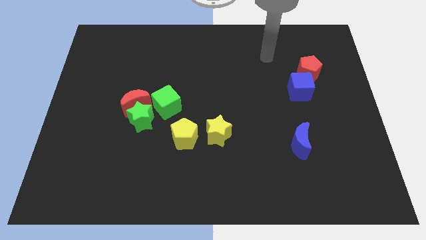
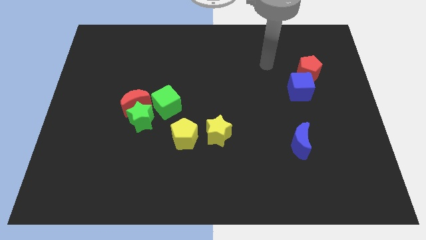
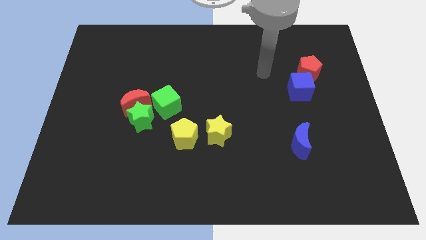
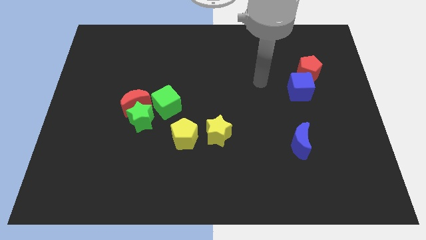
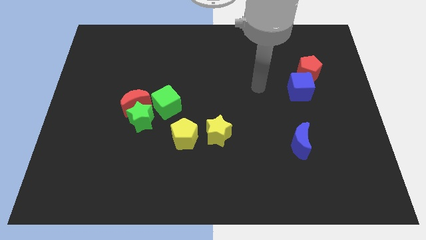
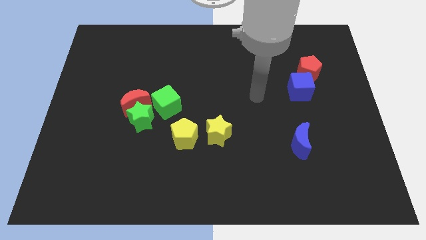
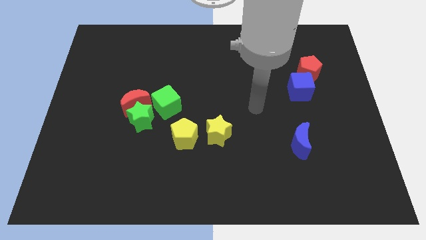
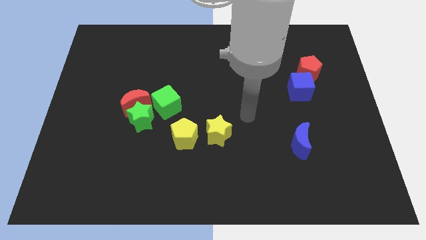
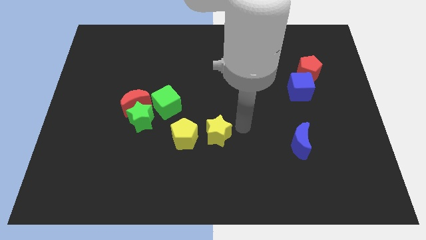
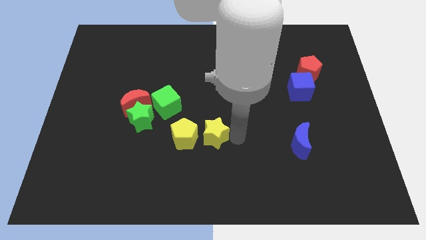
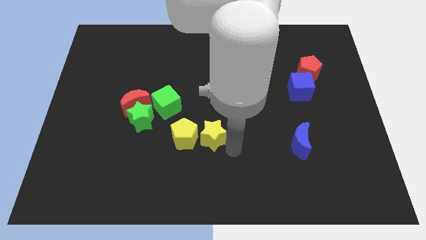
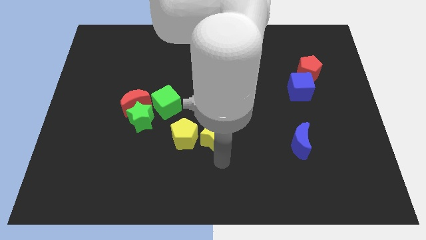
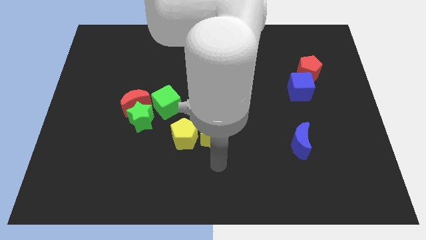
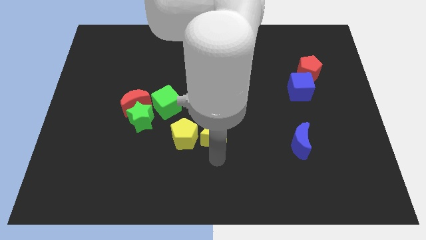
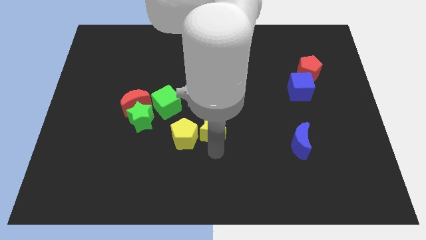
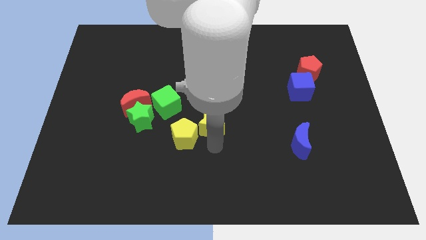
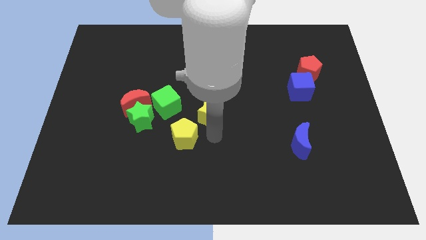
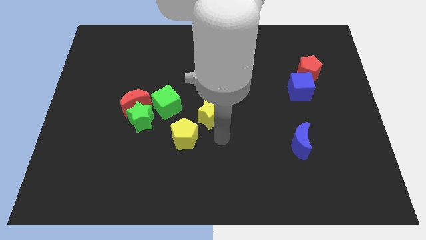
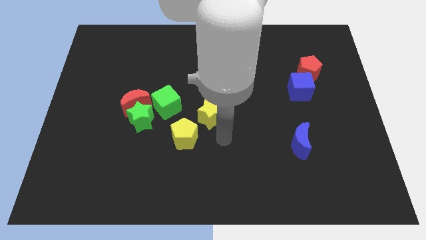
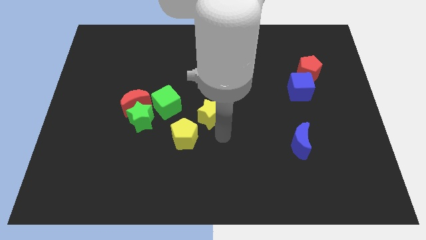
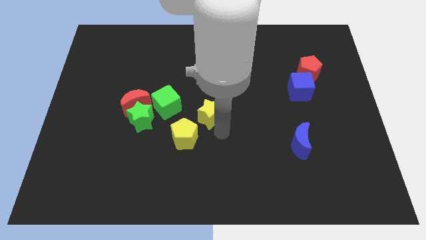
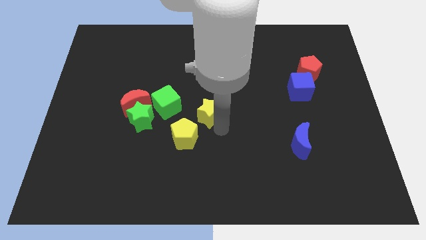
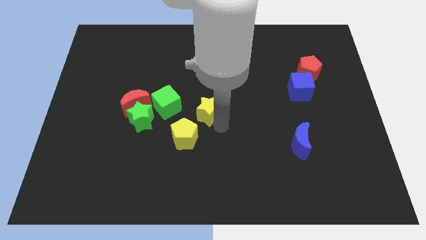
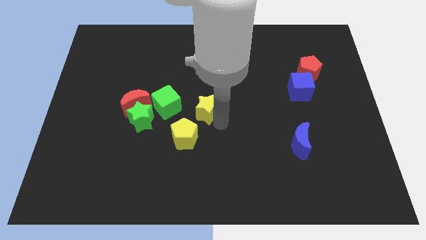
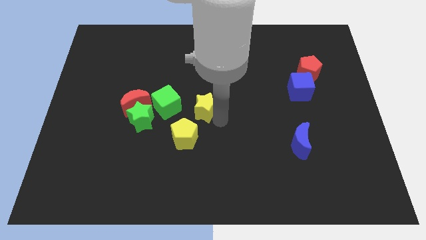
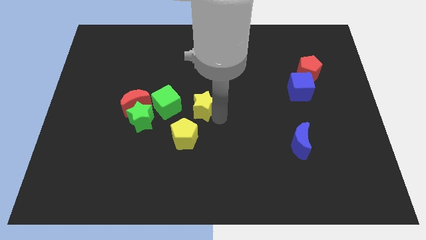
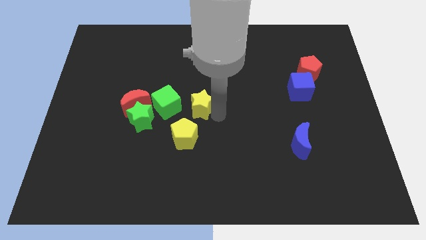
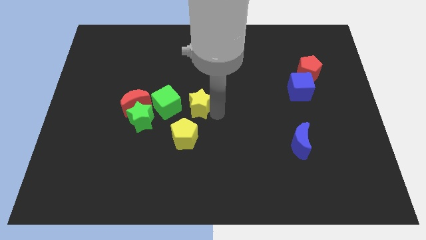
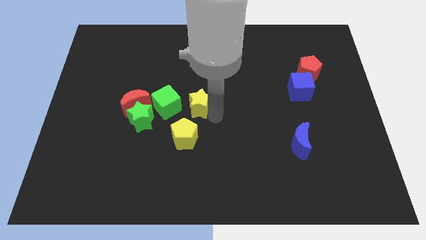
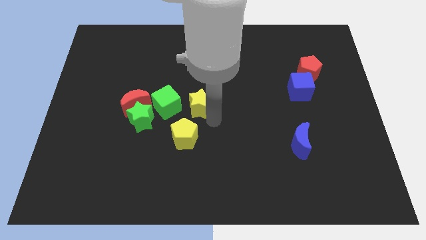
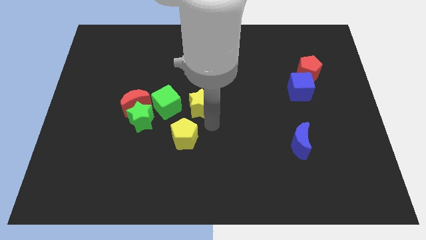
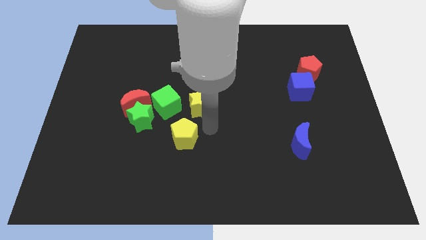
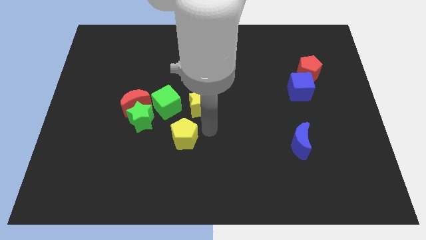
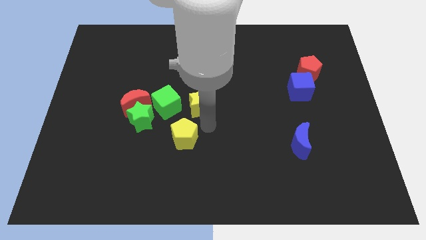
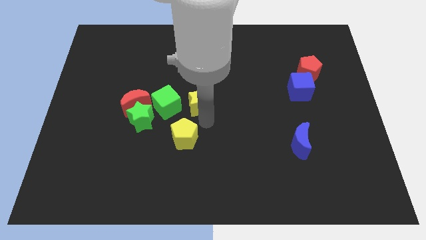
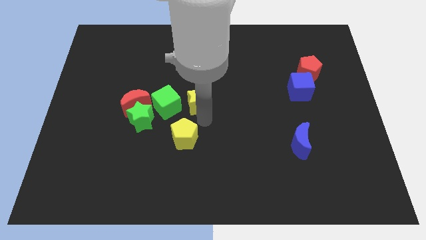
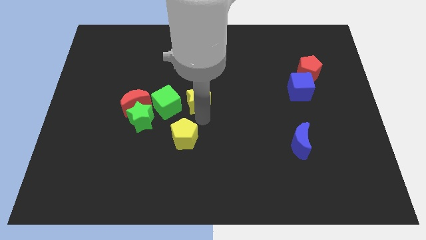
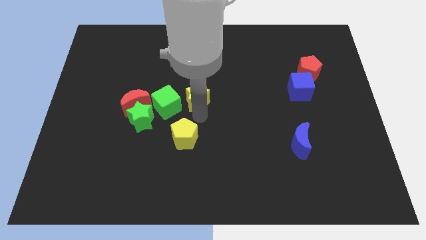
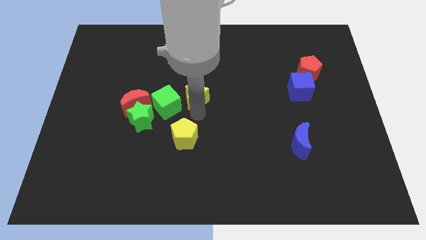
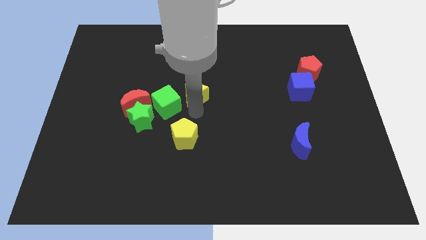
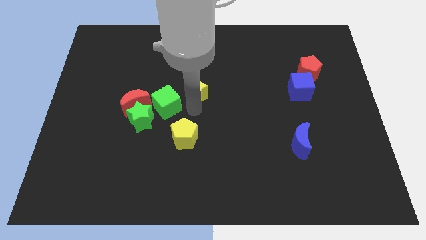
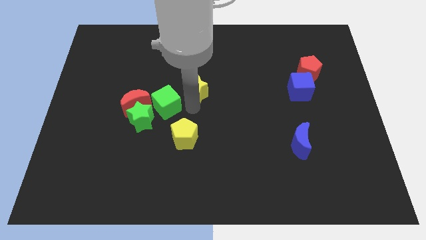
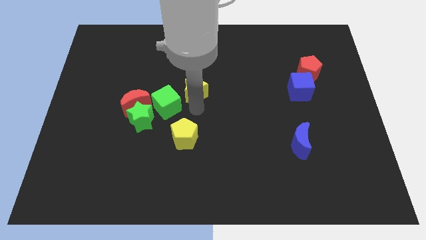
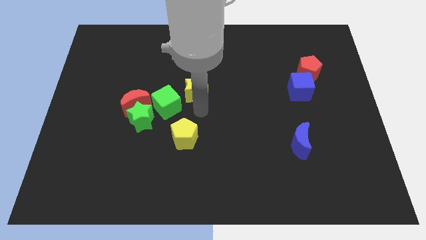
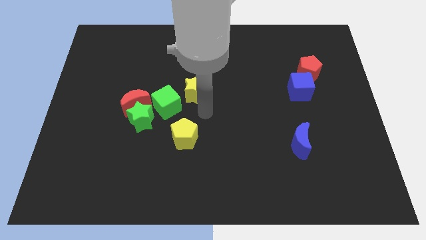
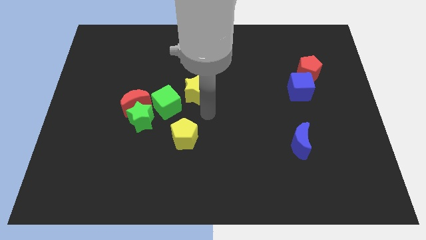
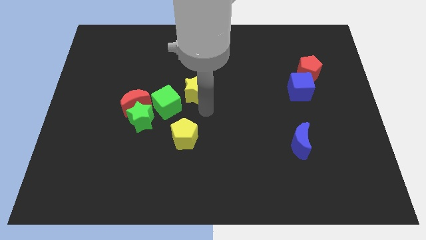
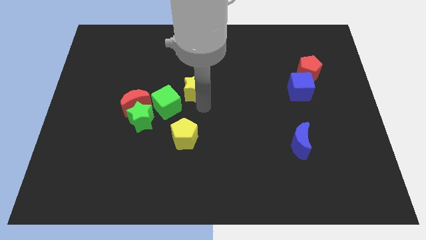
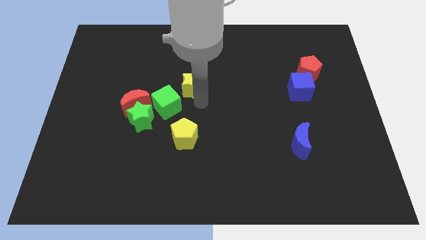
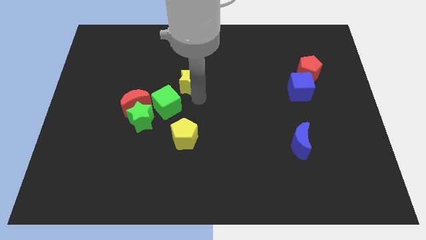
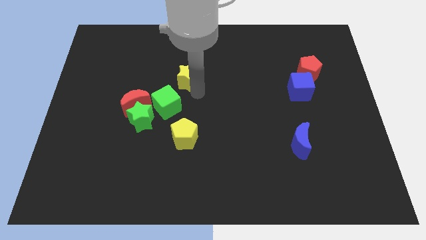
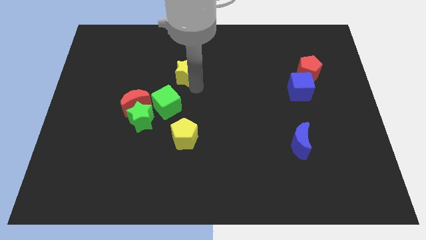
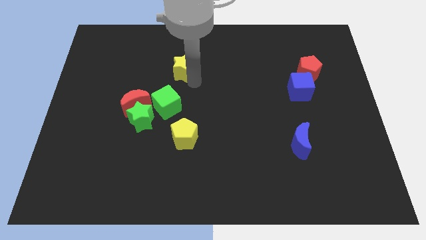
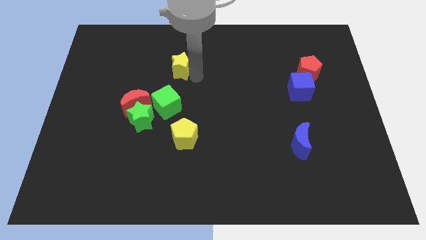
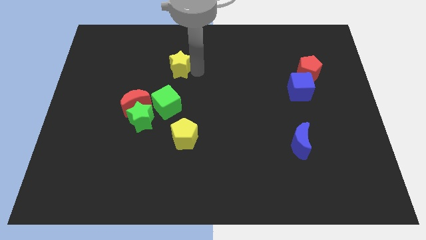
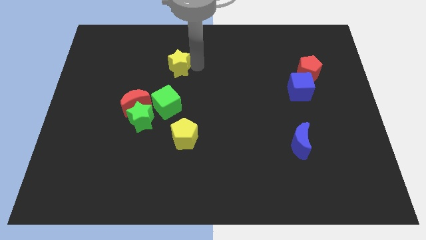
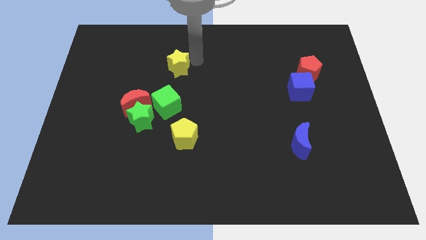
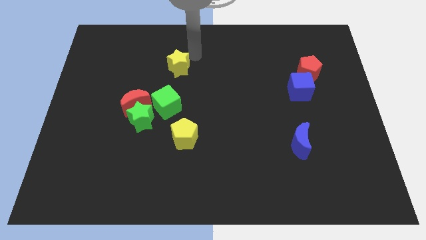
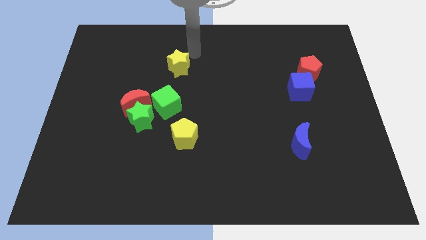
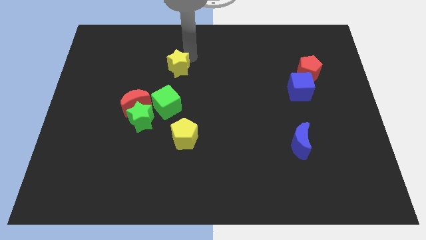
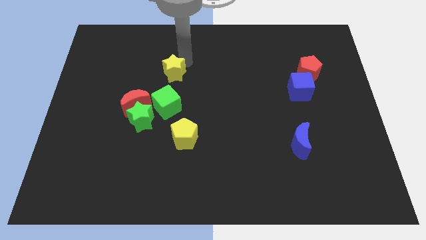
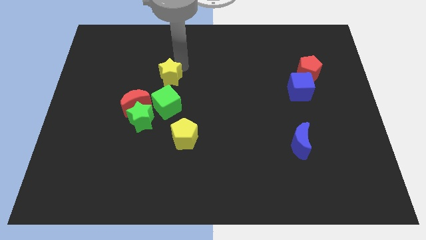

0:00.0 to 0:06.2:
move the yellow star to the top right side of the red moon
